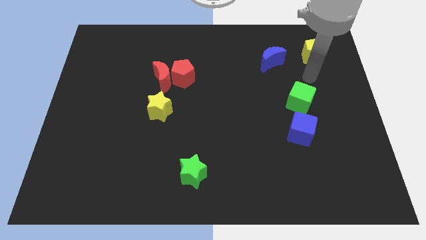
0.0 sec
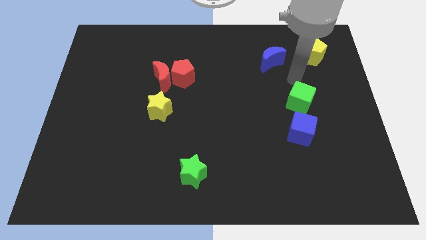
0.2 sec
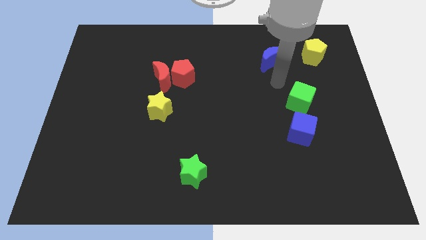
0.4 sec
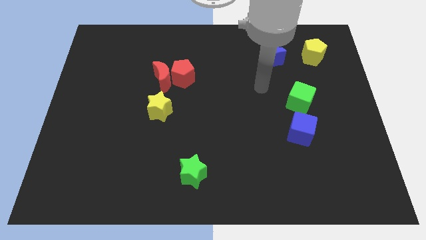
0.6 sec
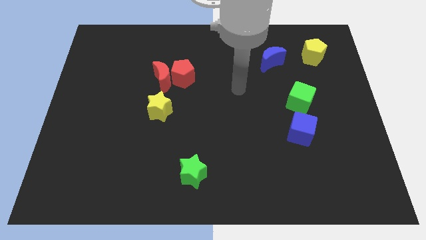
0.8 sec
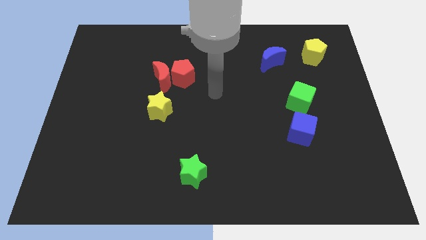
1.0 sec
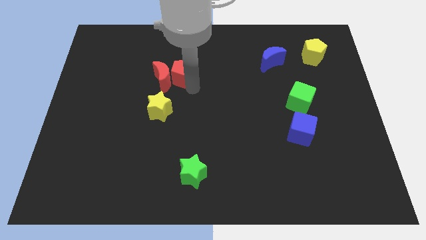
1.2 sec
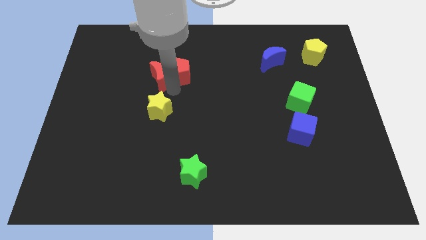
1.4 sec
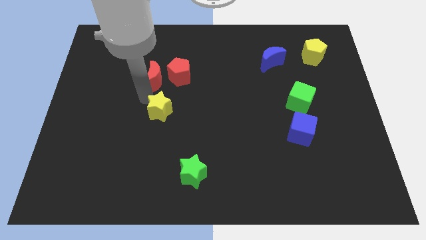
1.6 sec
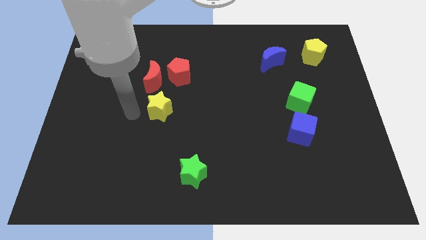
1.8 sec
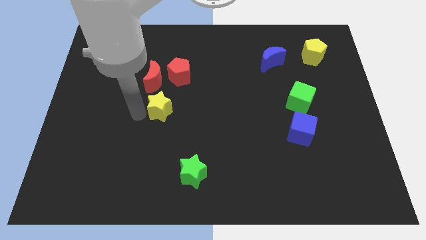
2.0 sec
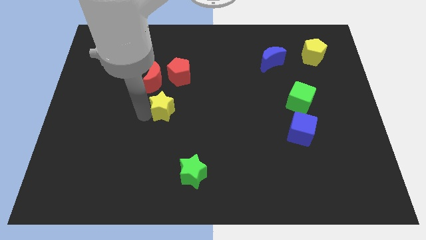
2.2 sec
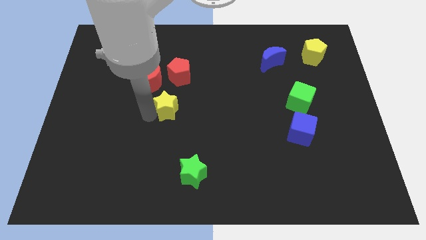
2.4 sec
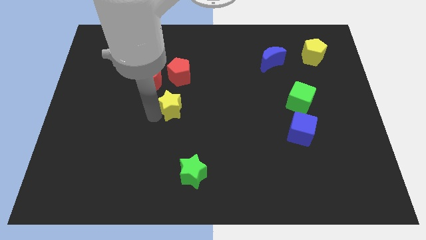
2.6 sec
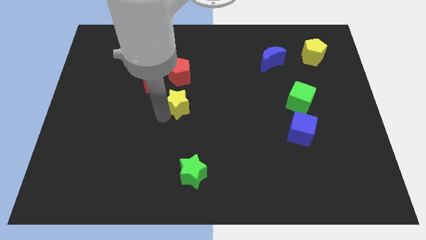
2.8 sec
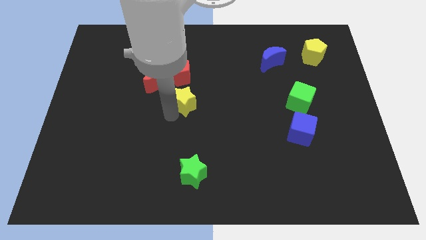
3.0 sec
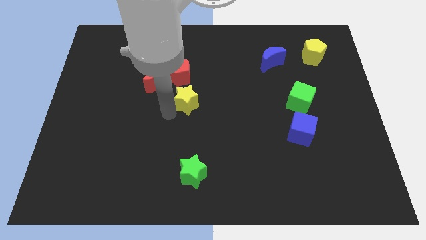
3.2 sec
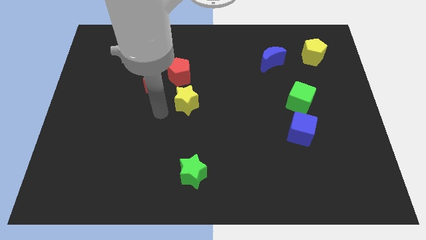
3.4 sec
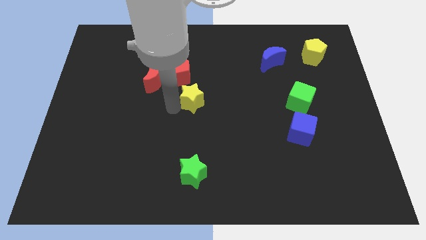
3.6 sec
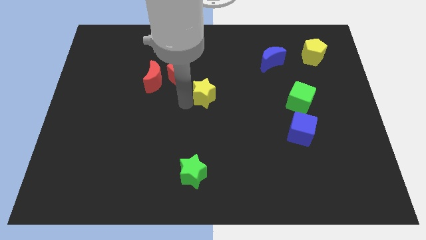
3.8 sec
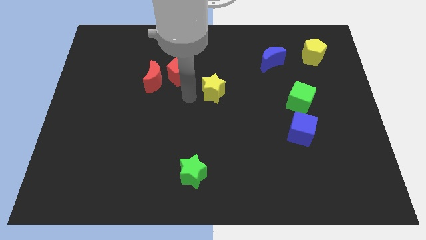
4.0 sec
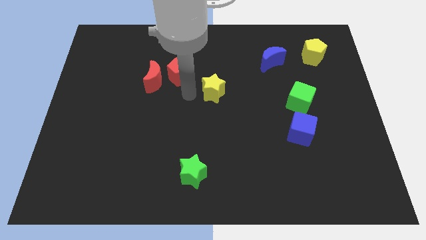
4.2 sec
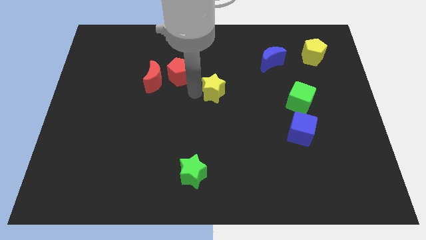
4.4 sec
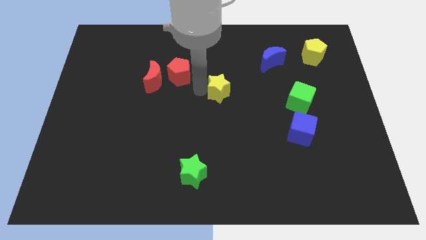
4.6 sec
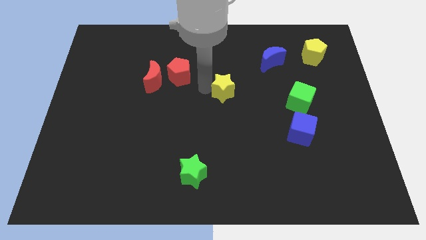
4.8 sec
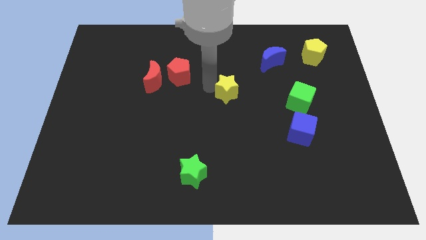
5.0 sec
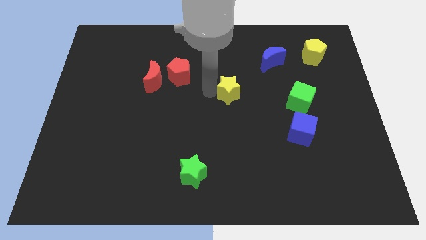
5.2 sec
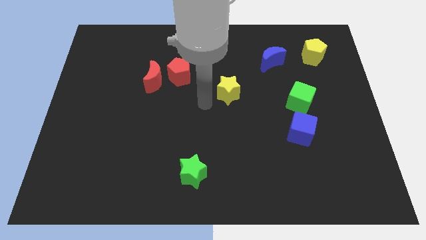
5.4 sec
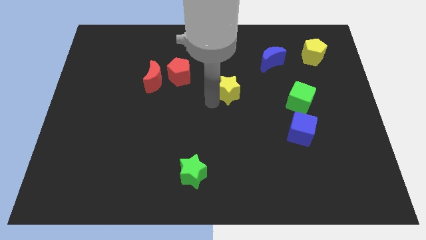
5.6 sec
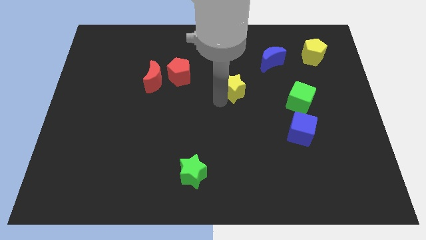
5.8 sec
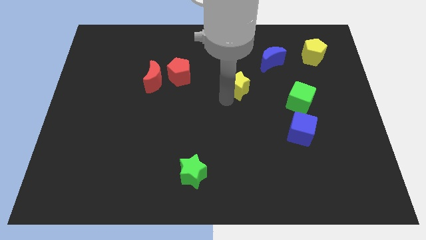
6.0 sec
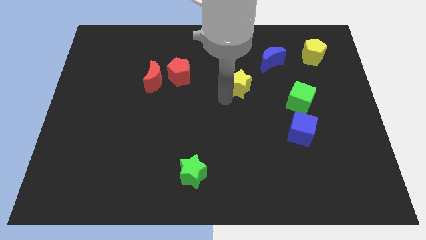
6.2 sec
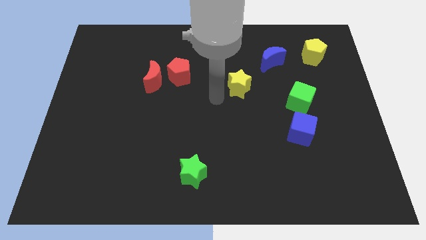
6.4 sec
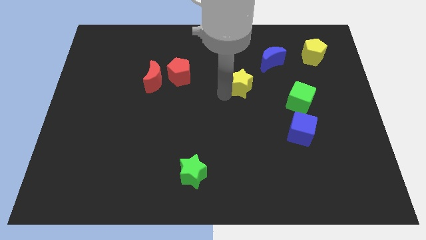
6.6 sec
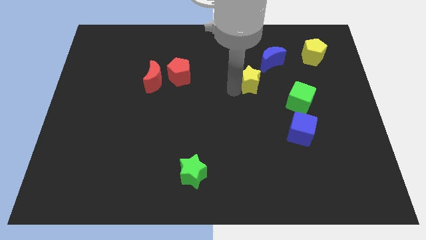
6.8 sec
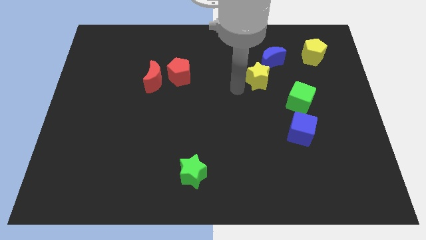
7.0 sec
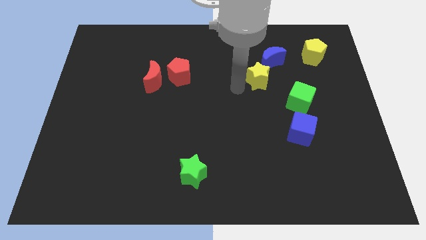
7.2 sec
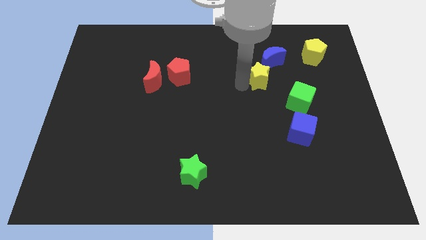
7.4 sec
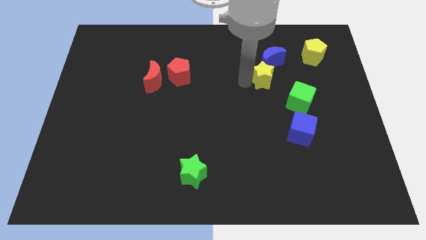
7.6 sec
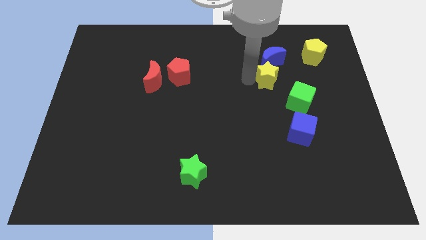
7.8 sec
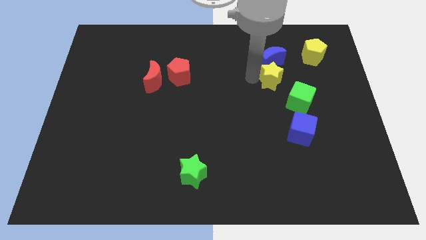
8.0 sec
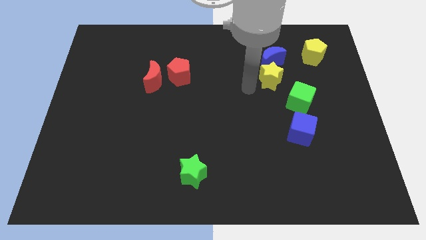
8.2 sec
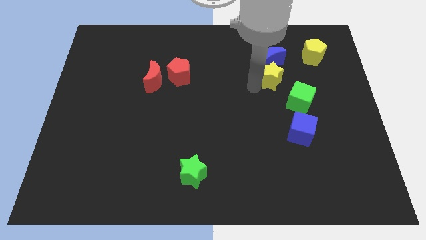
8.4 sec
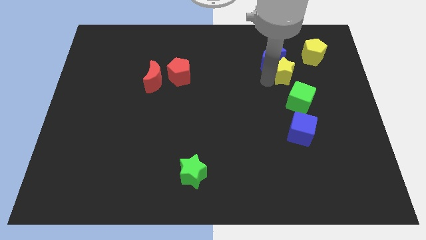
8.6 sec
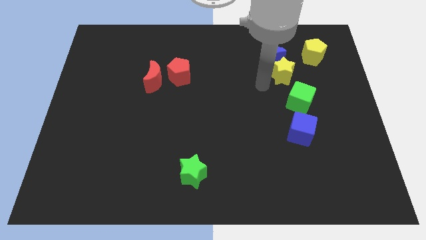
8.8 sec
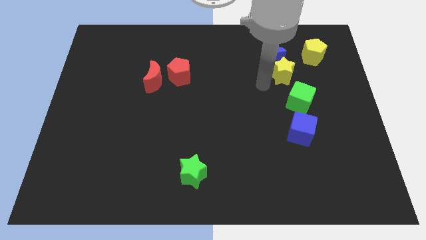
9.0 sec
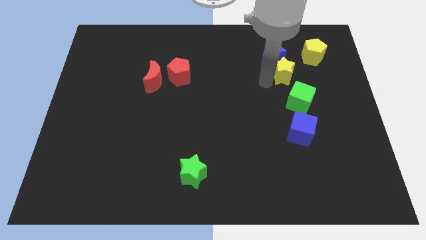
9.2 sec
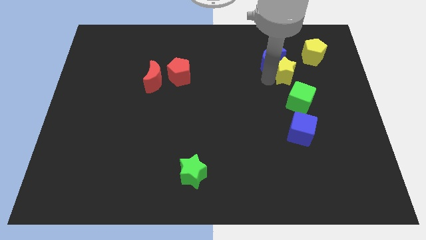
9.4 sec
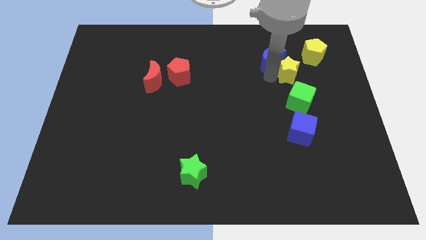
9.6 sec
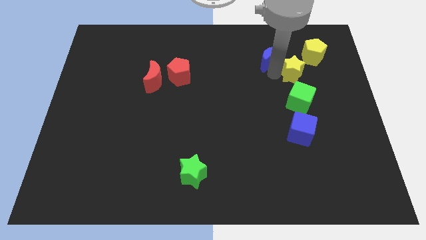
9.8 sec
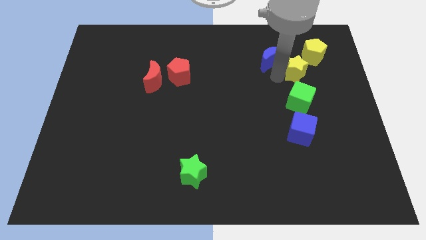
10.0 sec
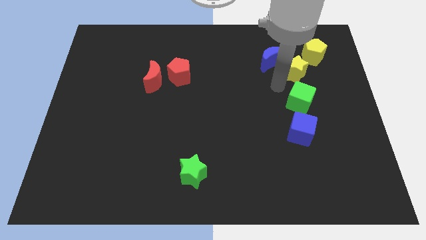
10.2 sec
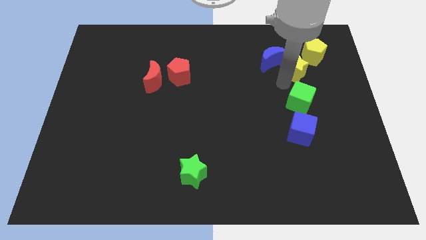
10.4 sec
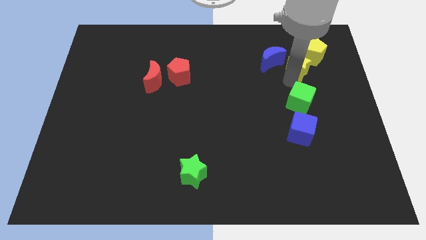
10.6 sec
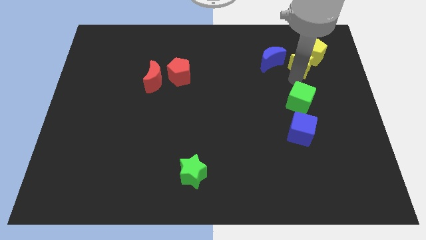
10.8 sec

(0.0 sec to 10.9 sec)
slide the yellow star close to the yellow pentagon

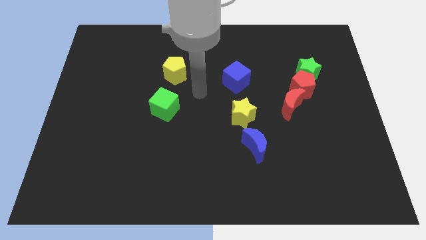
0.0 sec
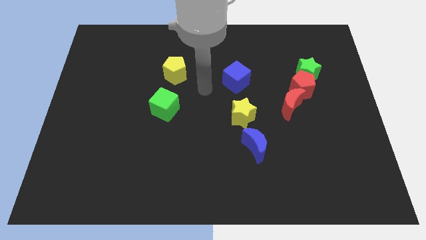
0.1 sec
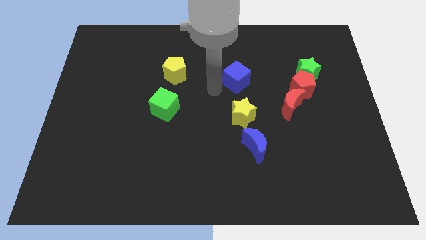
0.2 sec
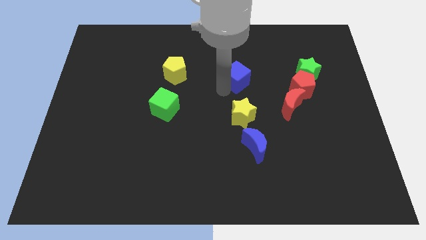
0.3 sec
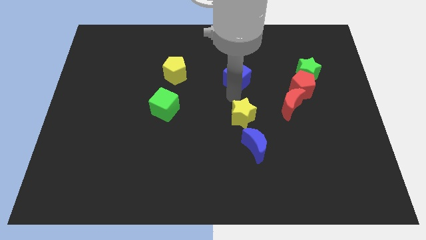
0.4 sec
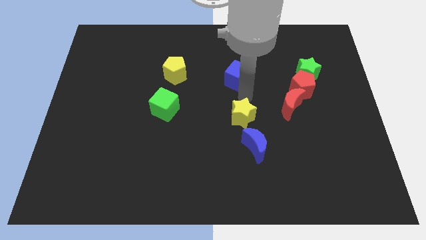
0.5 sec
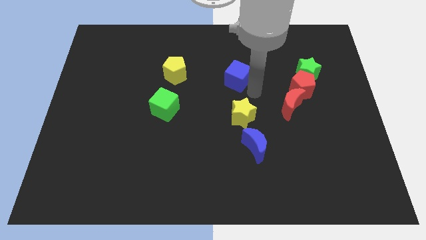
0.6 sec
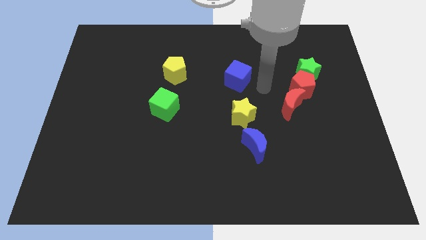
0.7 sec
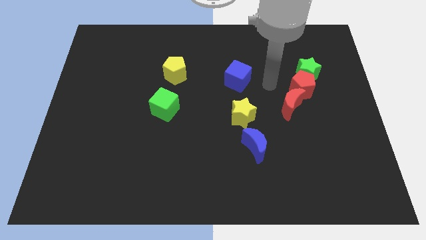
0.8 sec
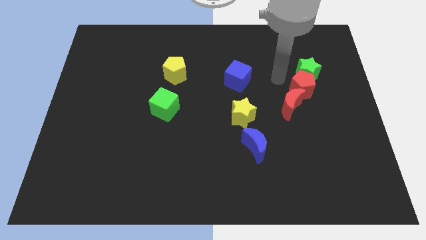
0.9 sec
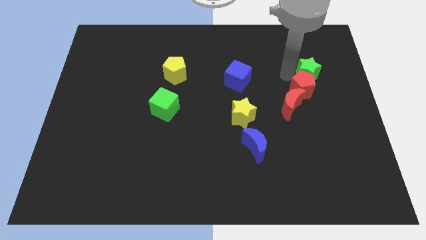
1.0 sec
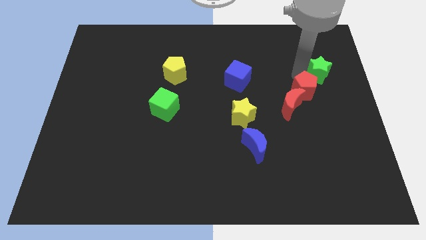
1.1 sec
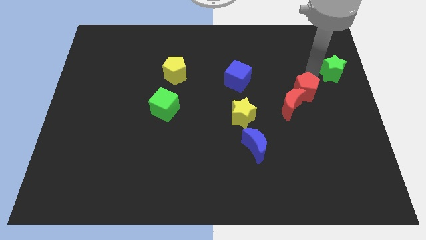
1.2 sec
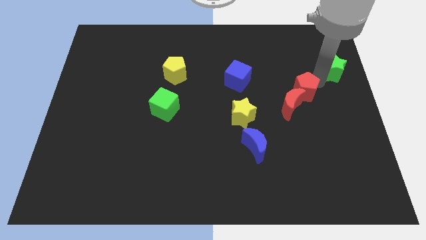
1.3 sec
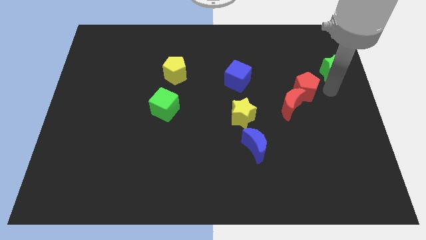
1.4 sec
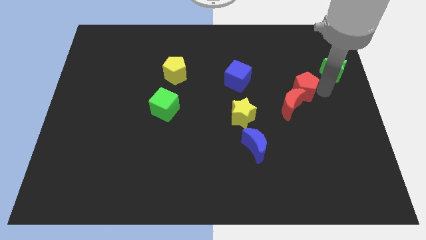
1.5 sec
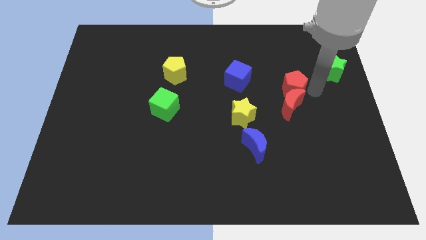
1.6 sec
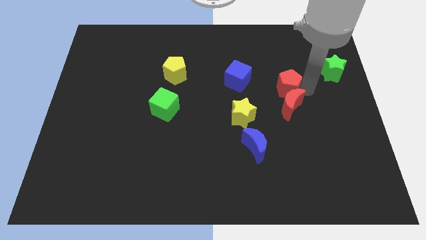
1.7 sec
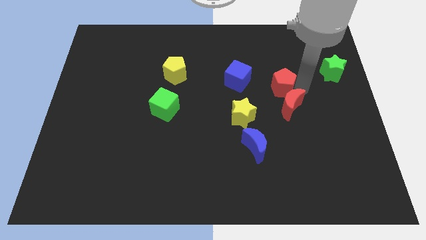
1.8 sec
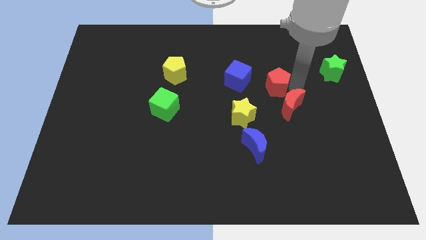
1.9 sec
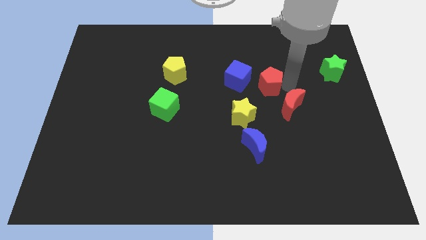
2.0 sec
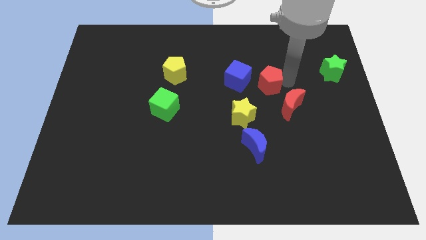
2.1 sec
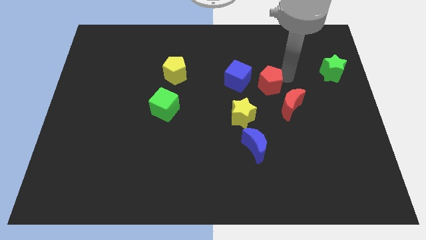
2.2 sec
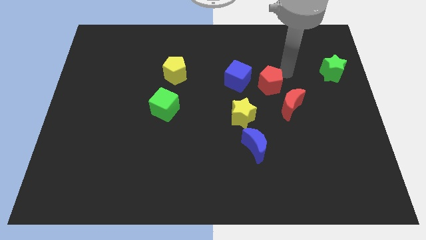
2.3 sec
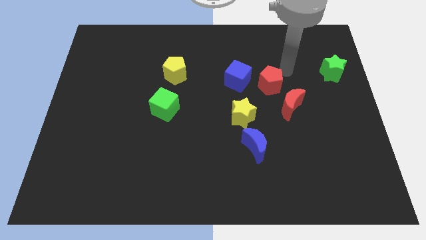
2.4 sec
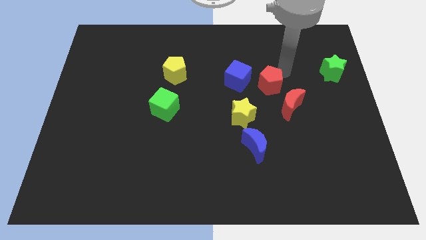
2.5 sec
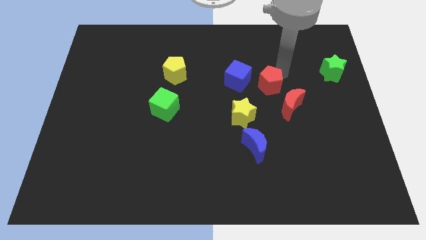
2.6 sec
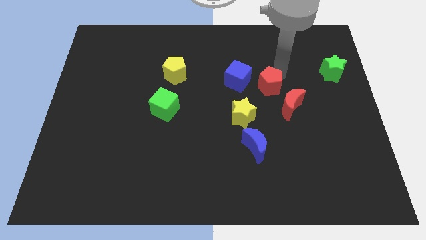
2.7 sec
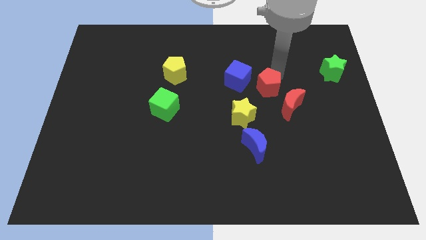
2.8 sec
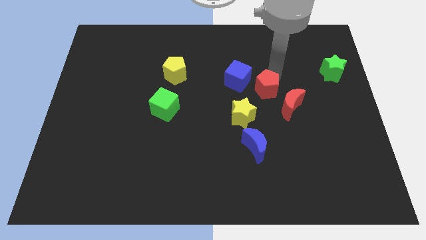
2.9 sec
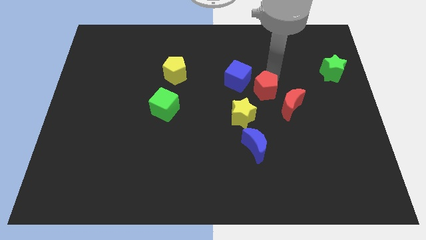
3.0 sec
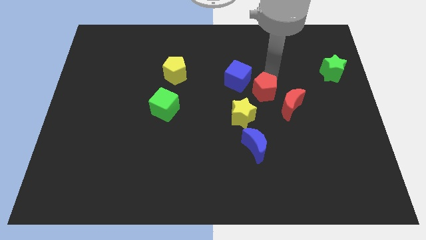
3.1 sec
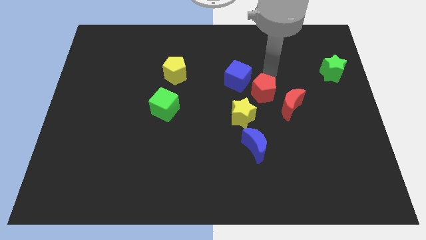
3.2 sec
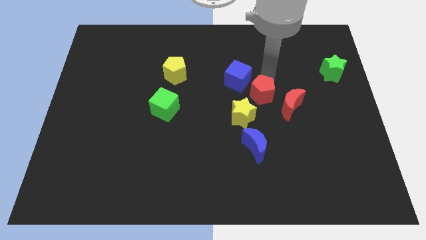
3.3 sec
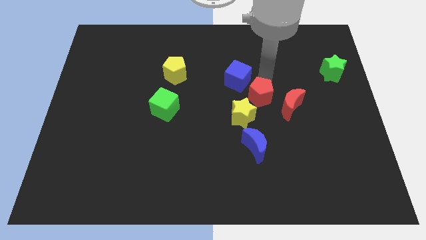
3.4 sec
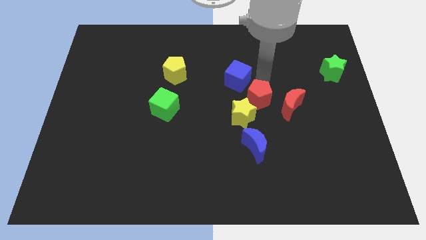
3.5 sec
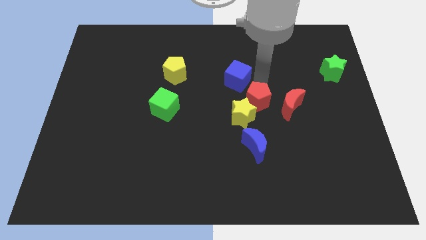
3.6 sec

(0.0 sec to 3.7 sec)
slide the red pentagon next to the yellow star
